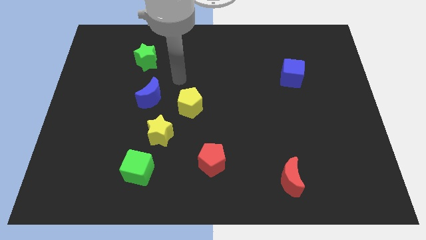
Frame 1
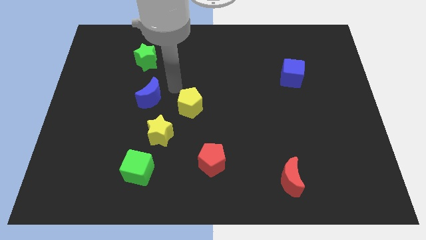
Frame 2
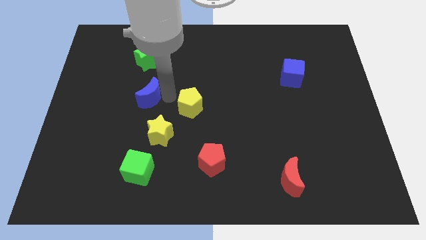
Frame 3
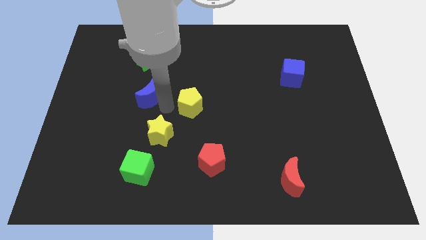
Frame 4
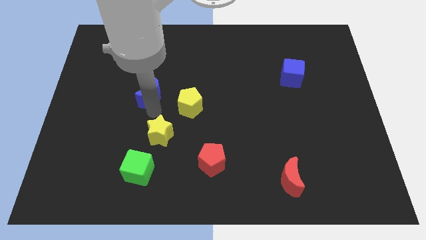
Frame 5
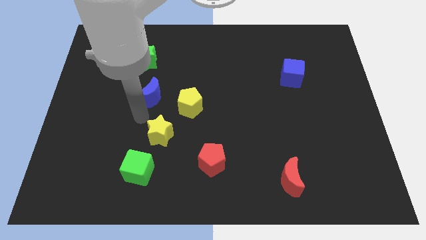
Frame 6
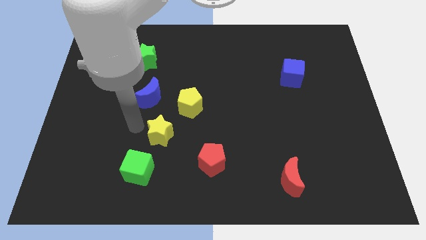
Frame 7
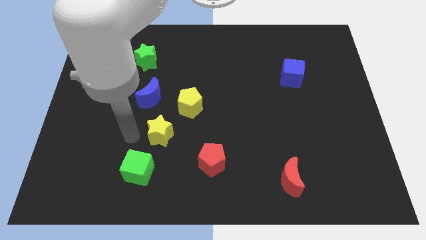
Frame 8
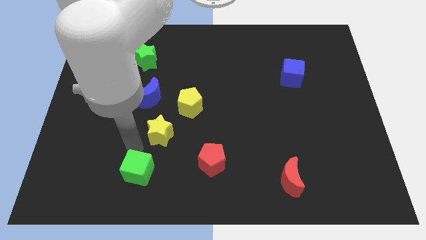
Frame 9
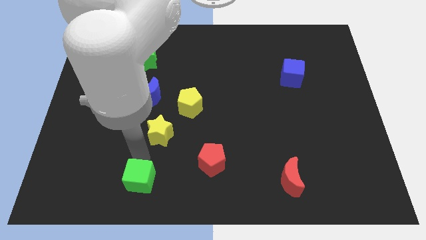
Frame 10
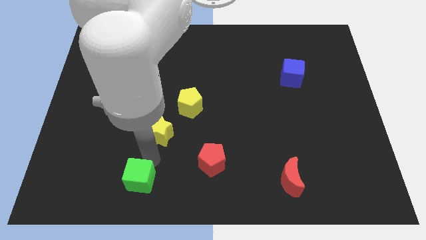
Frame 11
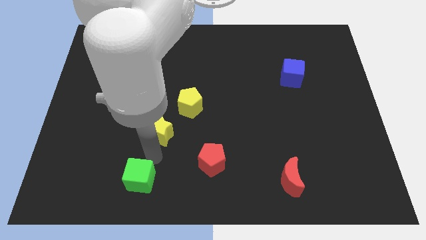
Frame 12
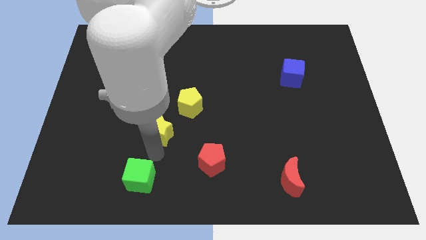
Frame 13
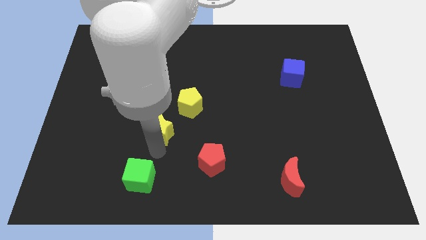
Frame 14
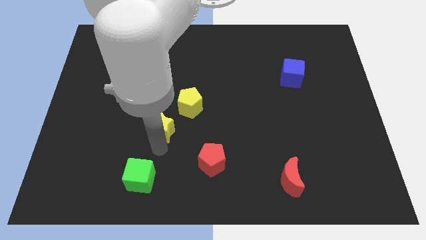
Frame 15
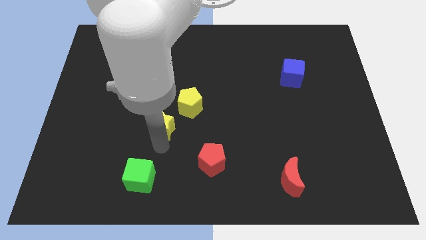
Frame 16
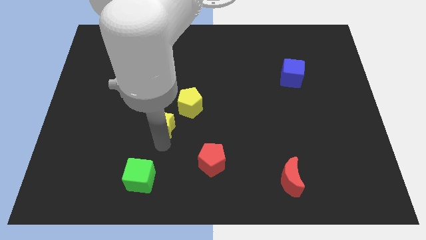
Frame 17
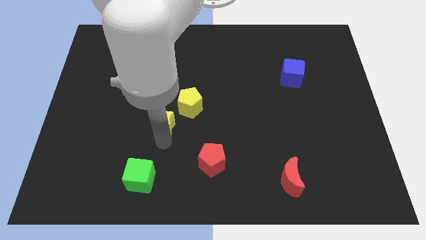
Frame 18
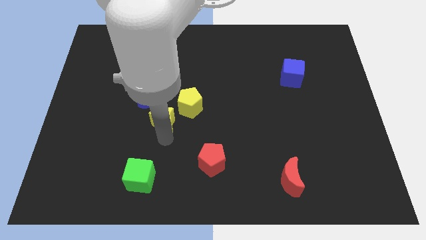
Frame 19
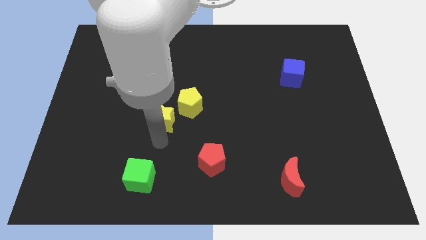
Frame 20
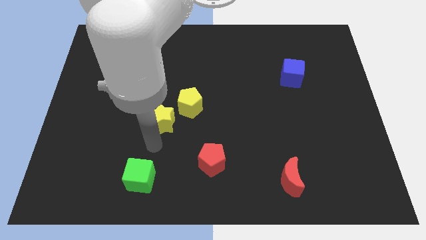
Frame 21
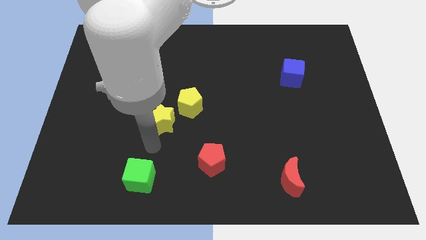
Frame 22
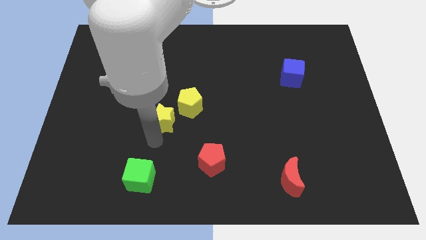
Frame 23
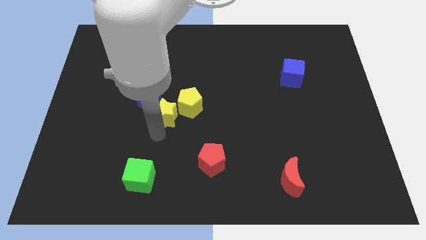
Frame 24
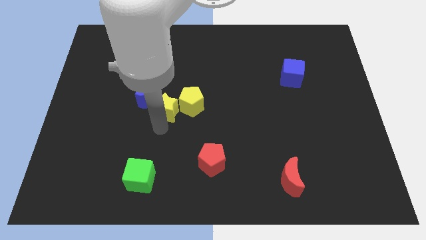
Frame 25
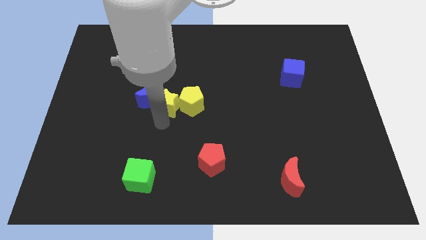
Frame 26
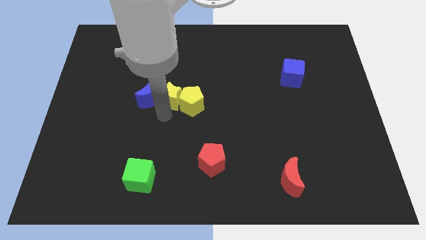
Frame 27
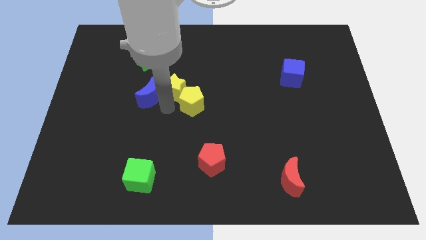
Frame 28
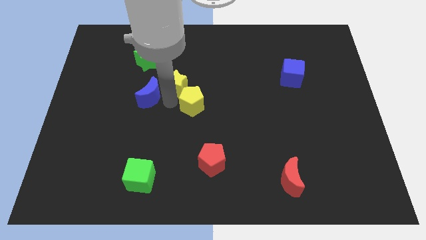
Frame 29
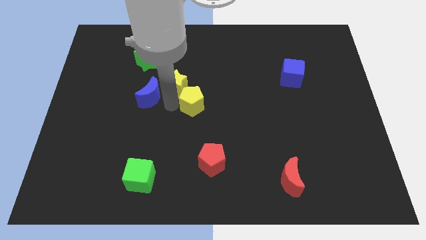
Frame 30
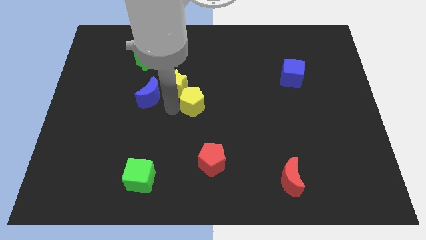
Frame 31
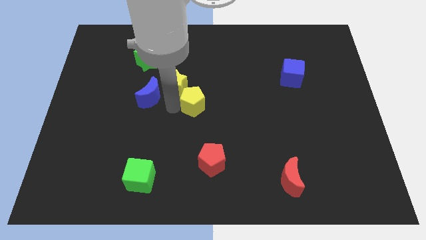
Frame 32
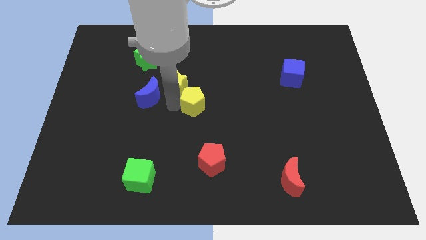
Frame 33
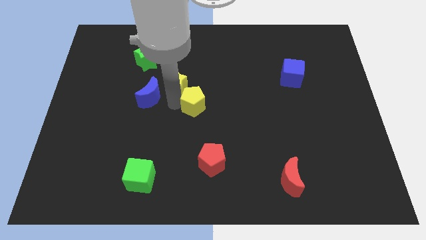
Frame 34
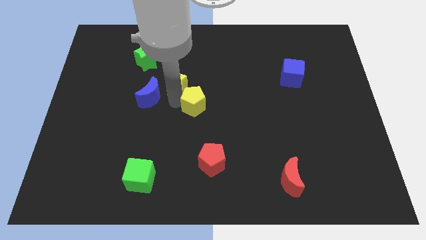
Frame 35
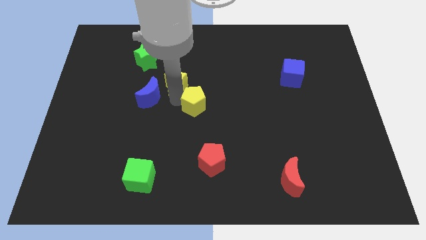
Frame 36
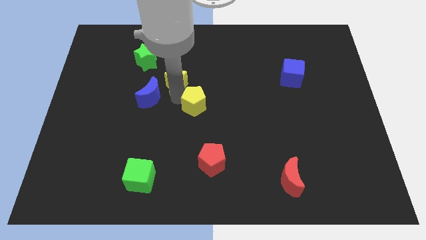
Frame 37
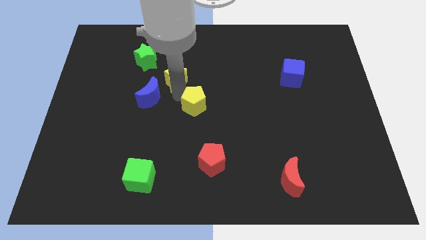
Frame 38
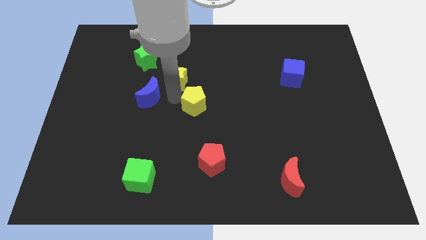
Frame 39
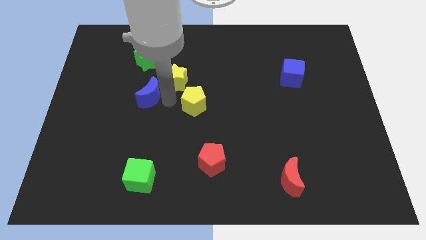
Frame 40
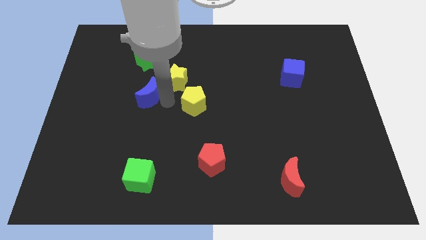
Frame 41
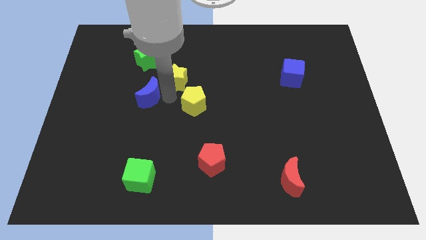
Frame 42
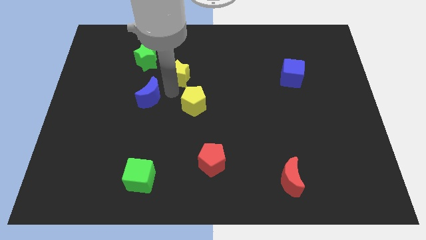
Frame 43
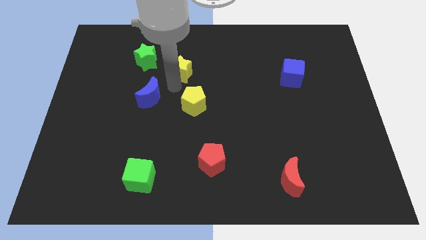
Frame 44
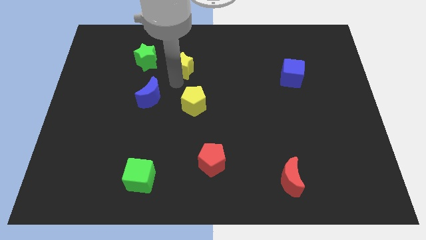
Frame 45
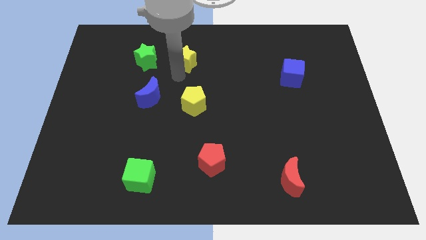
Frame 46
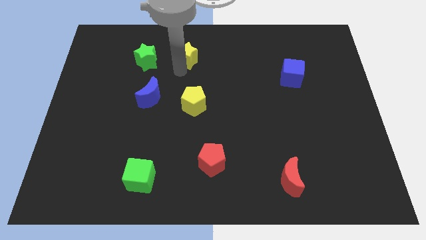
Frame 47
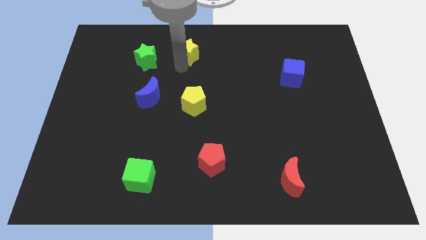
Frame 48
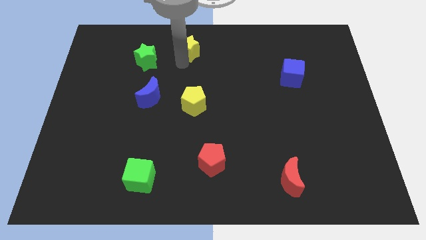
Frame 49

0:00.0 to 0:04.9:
move the yellow star to the towards your base

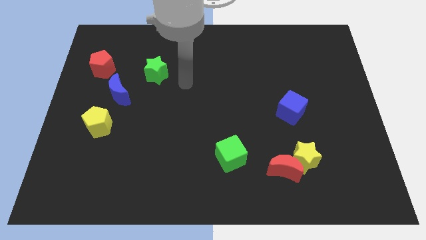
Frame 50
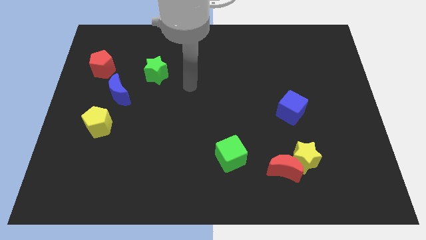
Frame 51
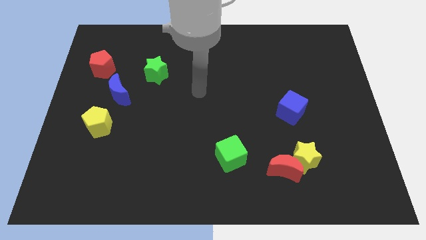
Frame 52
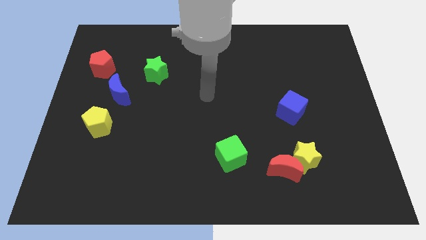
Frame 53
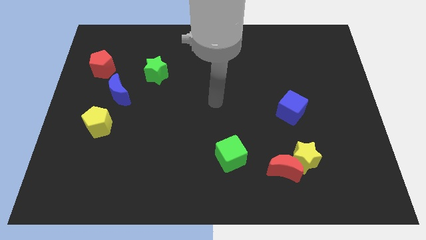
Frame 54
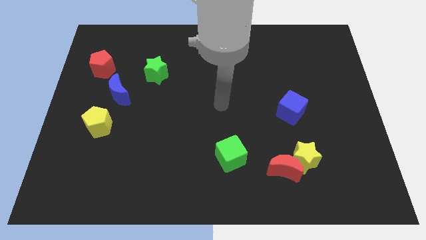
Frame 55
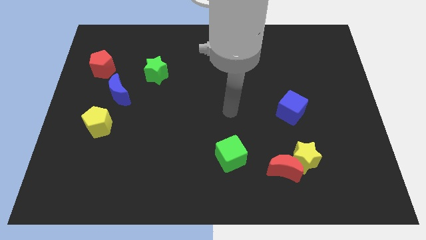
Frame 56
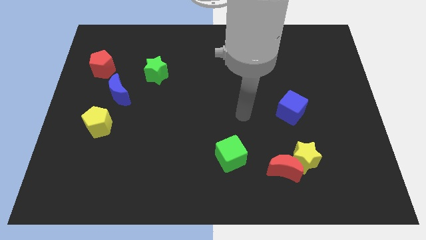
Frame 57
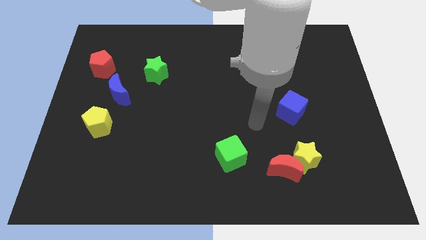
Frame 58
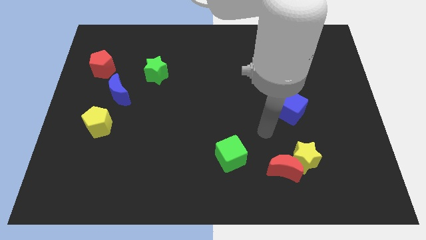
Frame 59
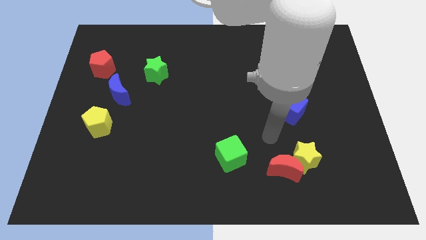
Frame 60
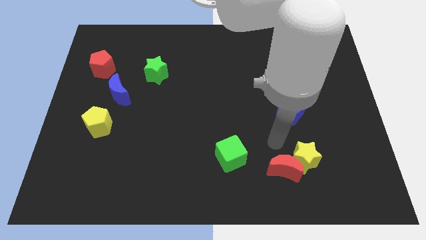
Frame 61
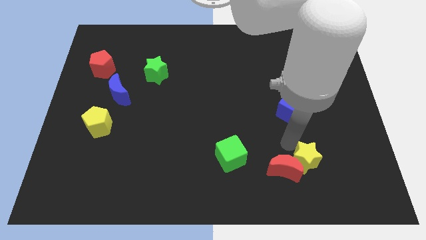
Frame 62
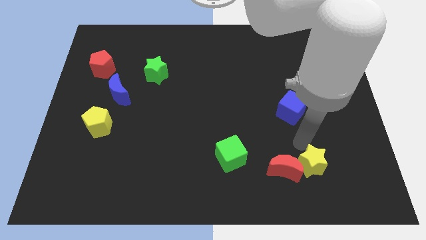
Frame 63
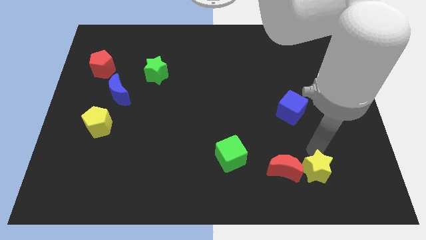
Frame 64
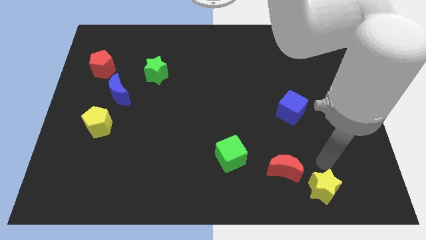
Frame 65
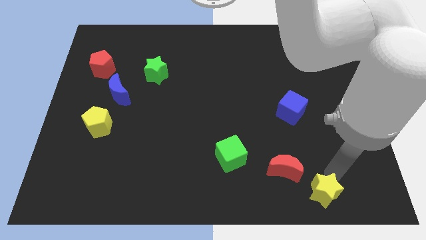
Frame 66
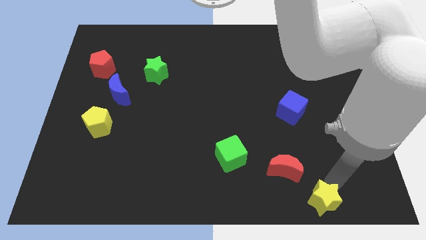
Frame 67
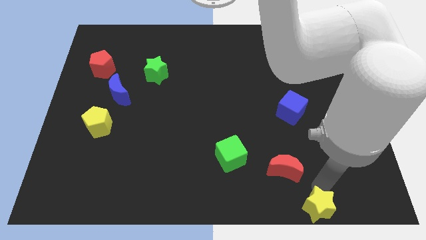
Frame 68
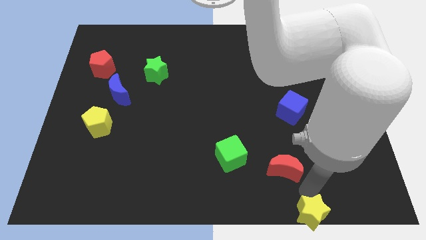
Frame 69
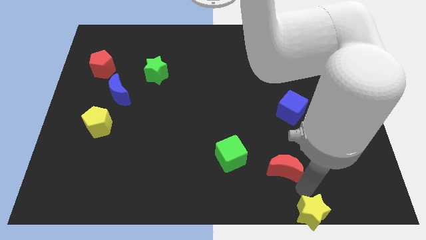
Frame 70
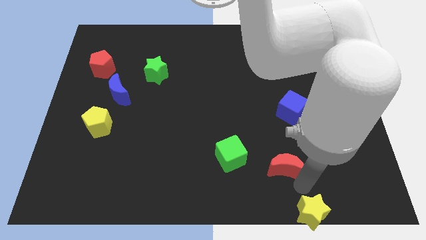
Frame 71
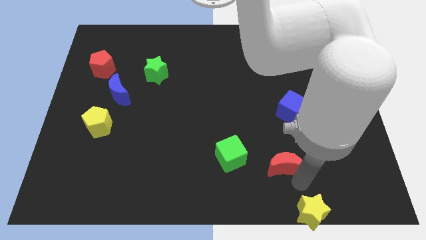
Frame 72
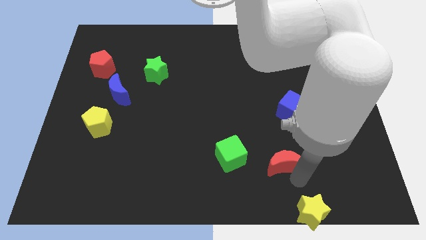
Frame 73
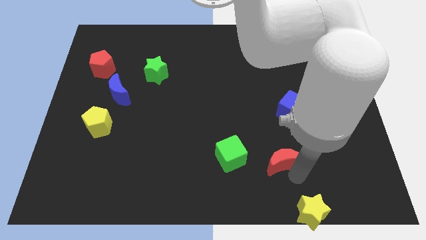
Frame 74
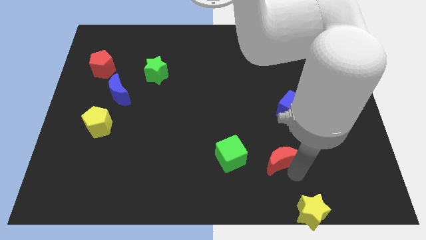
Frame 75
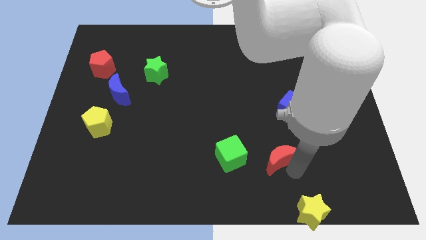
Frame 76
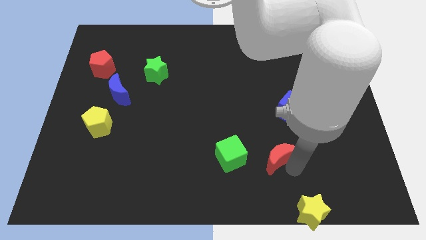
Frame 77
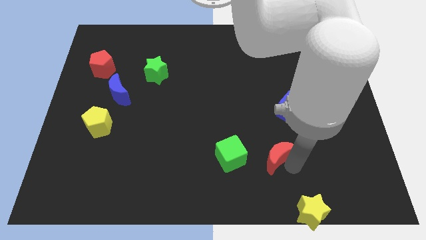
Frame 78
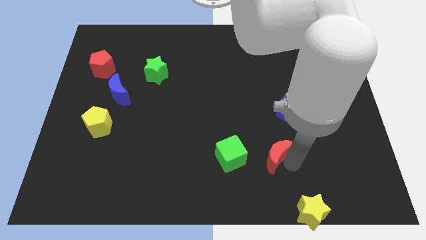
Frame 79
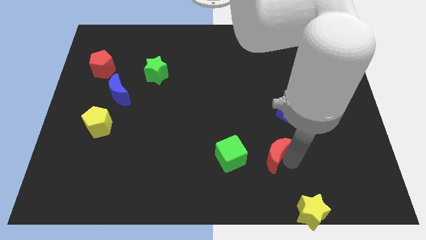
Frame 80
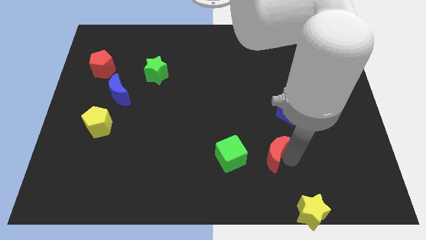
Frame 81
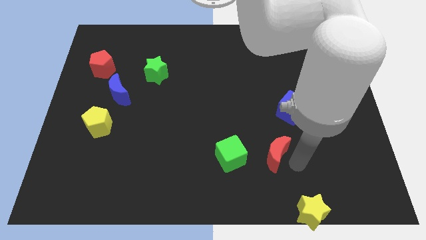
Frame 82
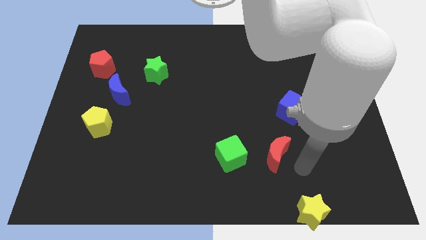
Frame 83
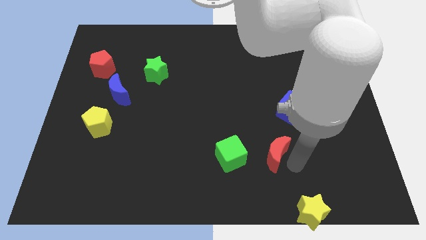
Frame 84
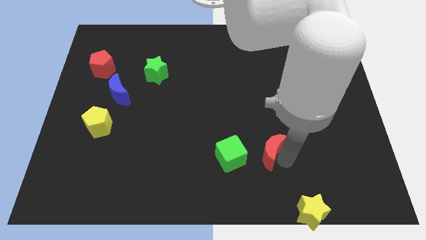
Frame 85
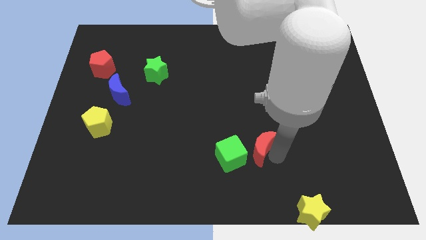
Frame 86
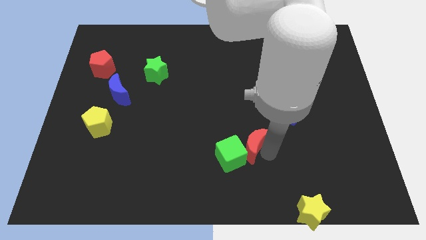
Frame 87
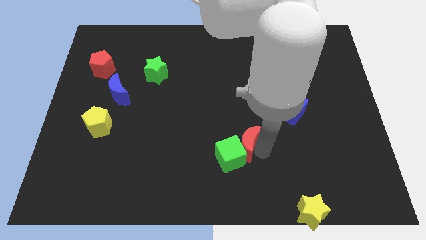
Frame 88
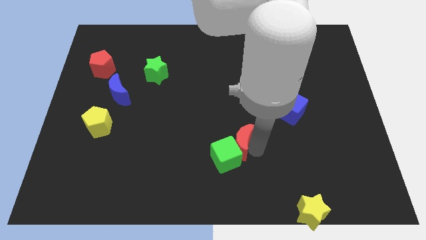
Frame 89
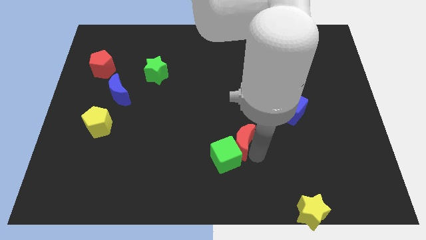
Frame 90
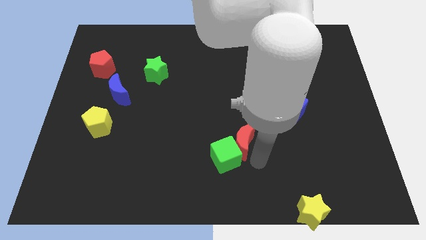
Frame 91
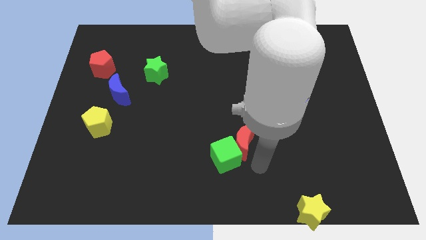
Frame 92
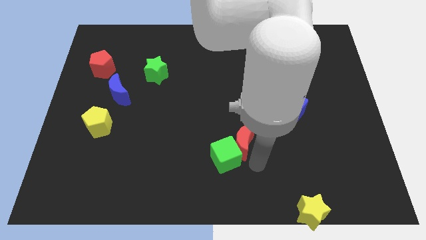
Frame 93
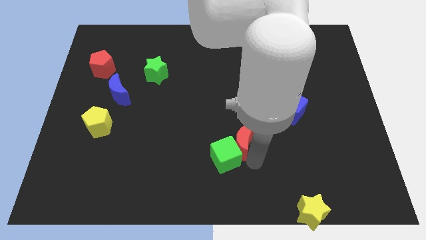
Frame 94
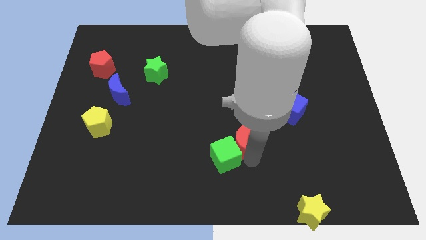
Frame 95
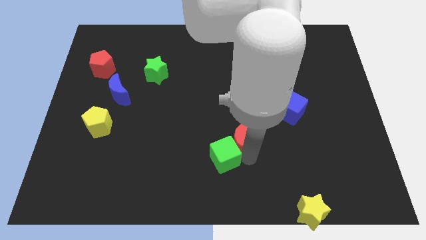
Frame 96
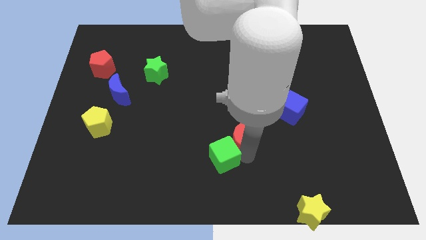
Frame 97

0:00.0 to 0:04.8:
slide the red moon to the center
